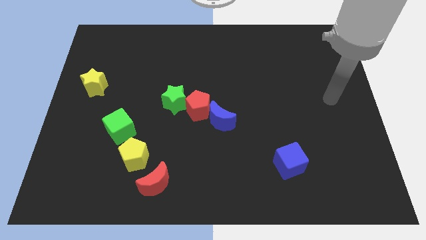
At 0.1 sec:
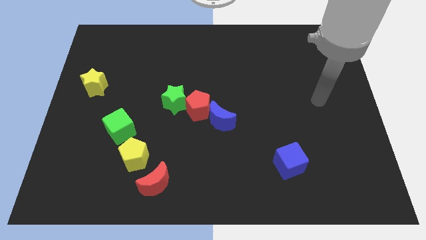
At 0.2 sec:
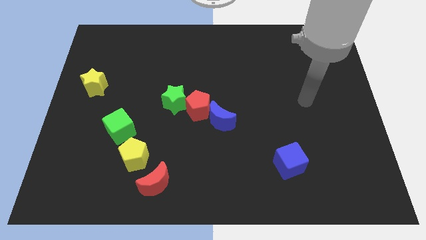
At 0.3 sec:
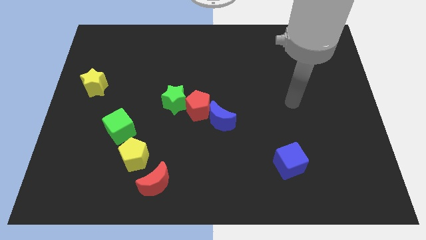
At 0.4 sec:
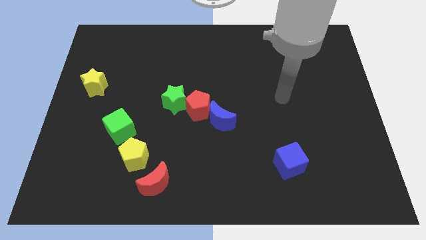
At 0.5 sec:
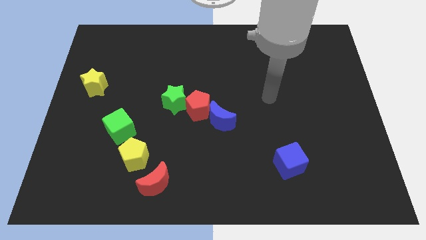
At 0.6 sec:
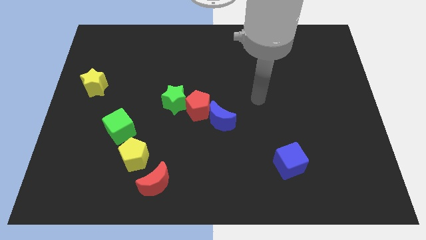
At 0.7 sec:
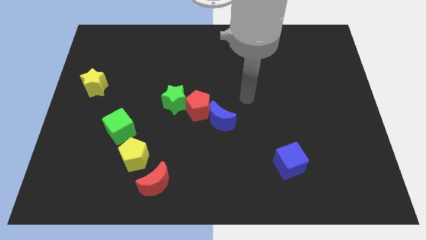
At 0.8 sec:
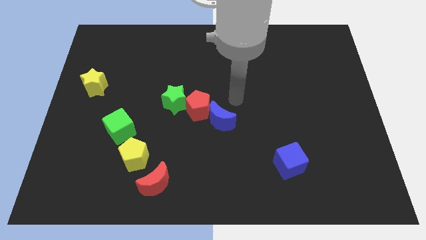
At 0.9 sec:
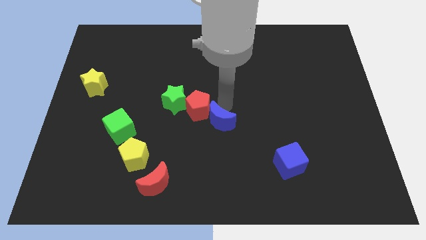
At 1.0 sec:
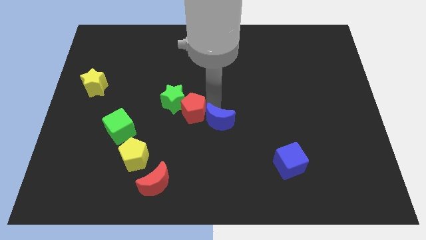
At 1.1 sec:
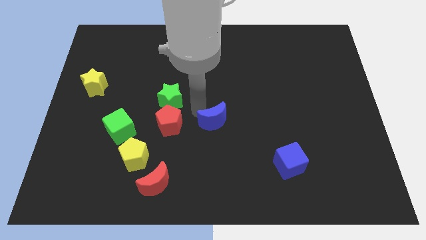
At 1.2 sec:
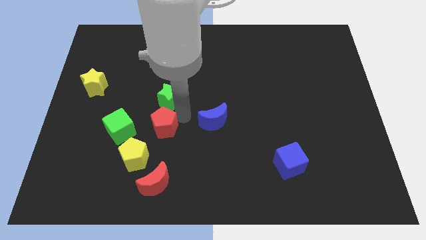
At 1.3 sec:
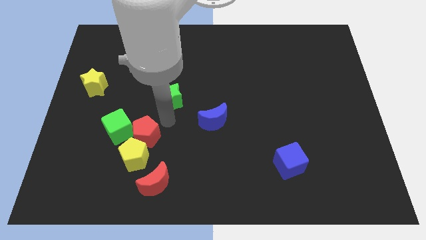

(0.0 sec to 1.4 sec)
separate the green star from the red pentagon

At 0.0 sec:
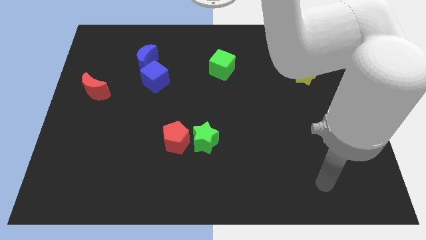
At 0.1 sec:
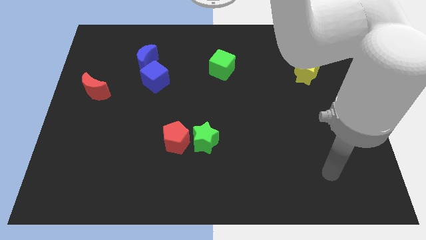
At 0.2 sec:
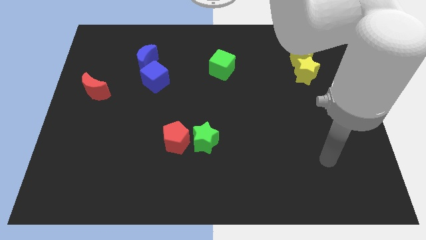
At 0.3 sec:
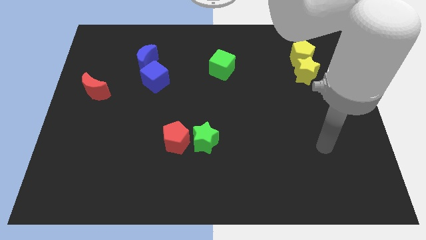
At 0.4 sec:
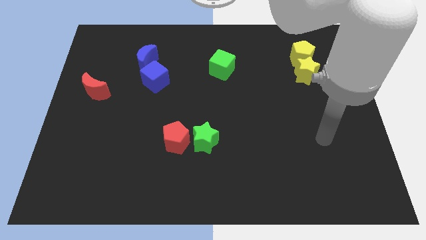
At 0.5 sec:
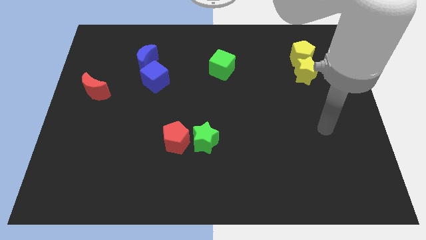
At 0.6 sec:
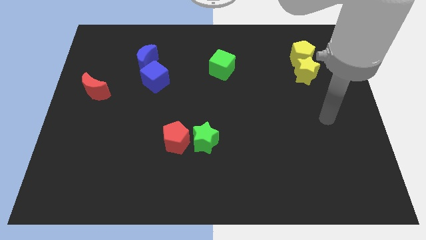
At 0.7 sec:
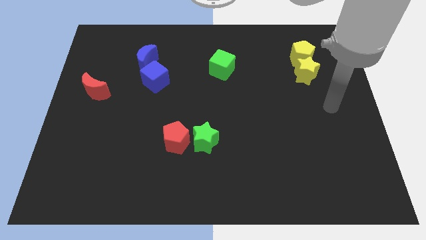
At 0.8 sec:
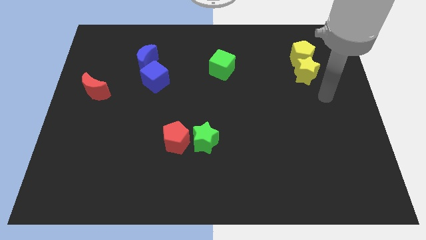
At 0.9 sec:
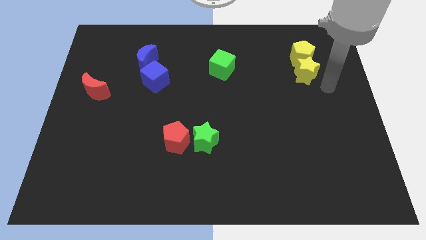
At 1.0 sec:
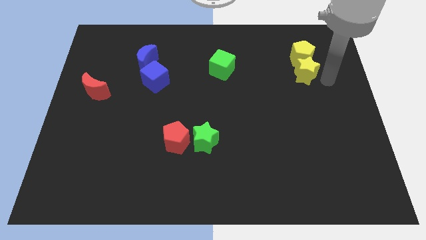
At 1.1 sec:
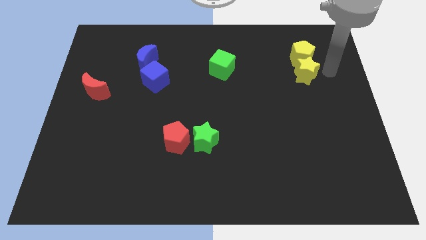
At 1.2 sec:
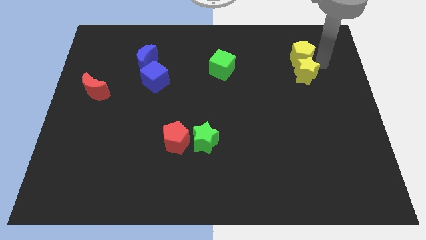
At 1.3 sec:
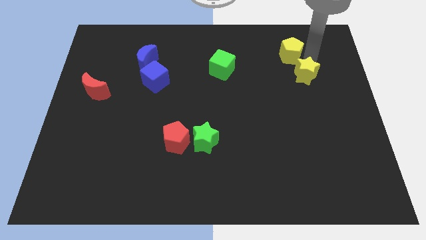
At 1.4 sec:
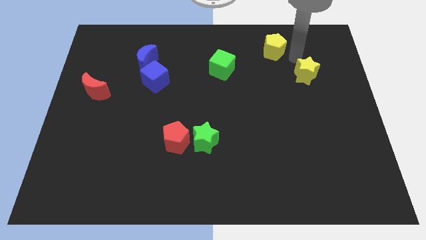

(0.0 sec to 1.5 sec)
pull the yellow star apart from the yellow pentagon

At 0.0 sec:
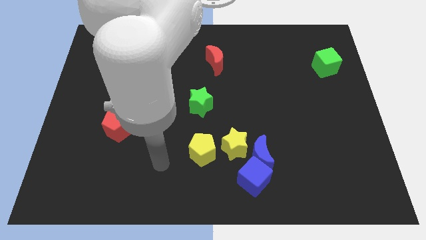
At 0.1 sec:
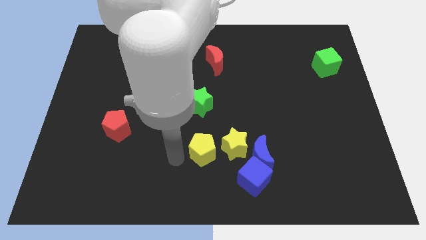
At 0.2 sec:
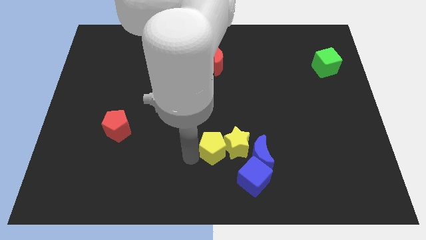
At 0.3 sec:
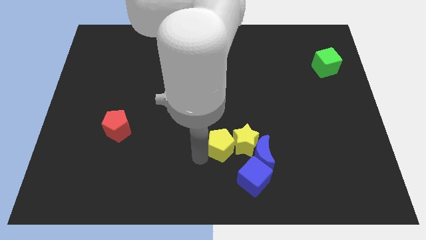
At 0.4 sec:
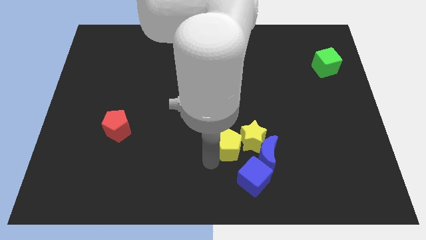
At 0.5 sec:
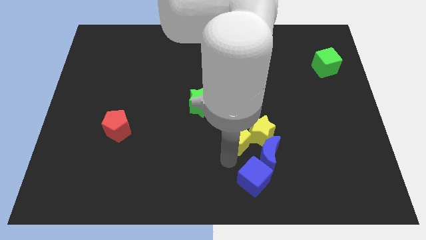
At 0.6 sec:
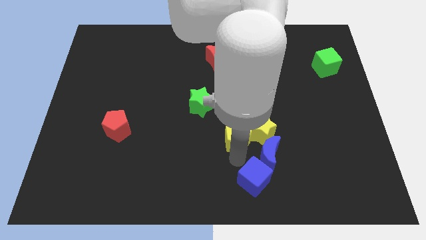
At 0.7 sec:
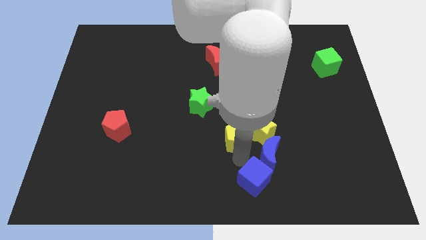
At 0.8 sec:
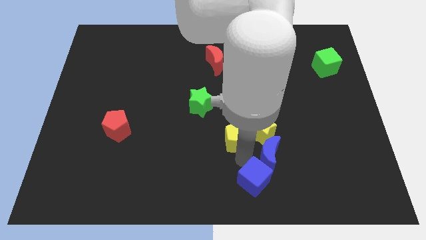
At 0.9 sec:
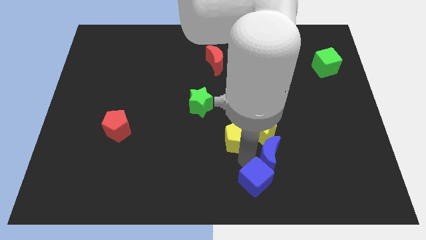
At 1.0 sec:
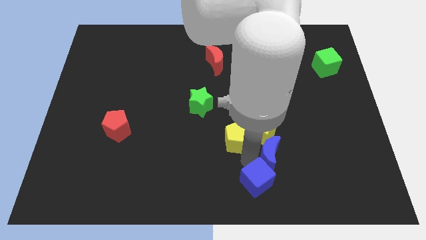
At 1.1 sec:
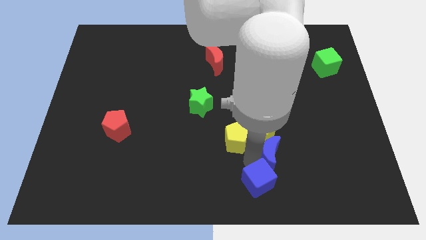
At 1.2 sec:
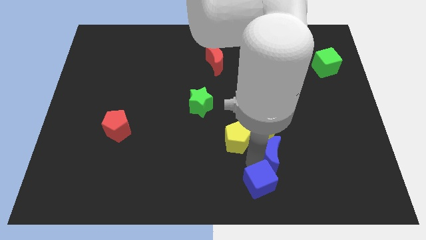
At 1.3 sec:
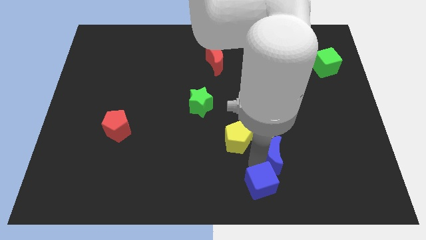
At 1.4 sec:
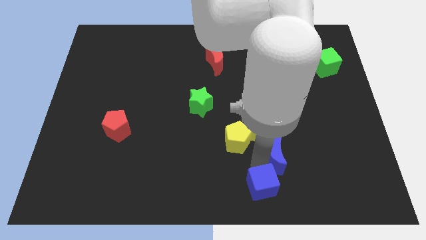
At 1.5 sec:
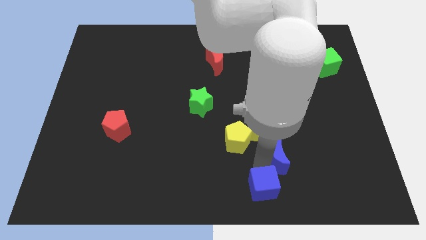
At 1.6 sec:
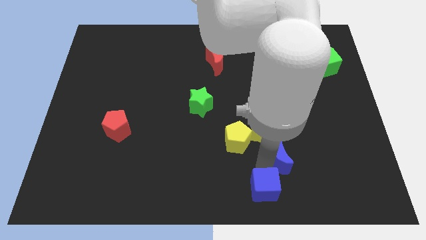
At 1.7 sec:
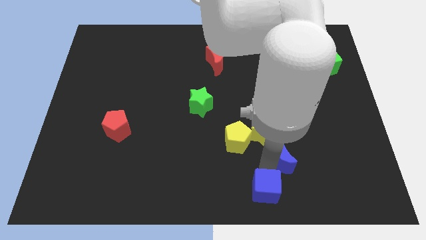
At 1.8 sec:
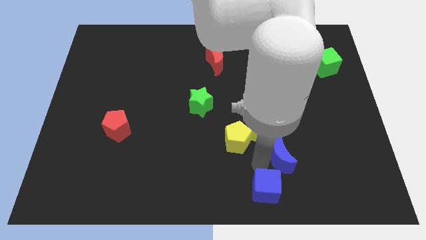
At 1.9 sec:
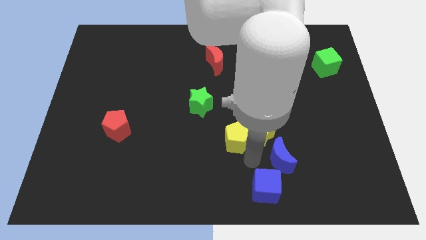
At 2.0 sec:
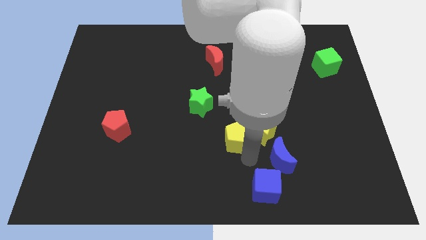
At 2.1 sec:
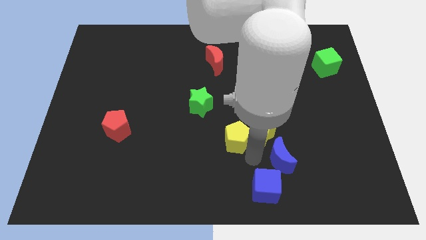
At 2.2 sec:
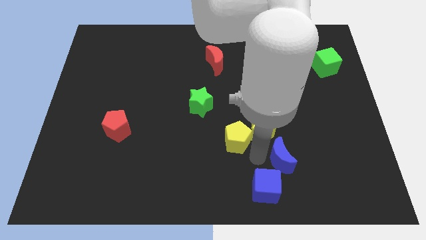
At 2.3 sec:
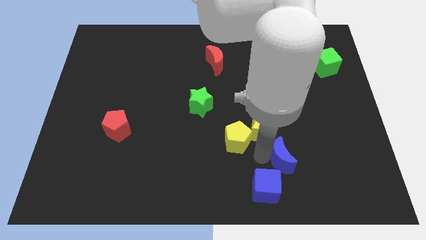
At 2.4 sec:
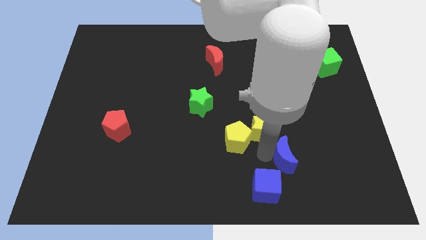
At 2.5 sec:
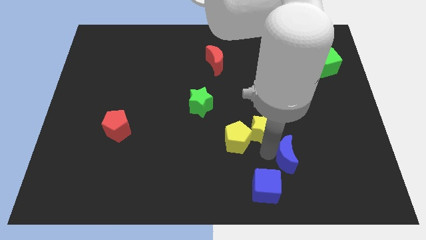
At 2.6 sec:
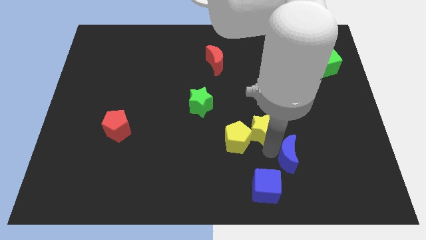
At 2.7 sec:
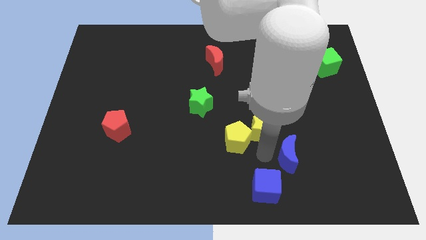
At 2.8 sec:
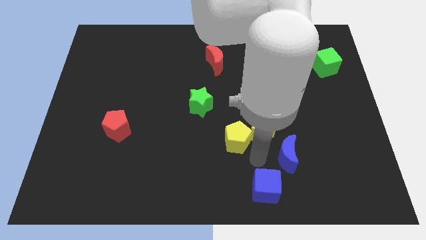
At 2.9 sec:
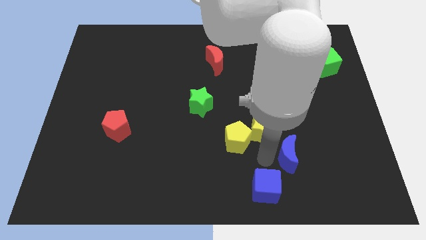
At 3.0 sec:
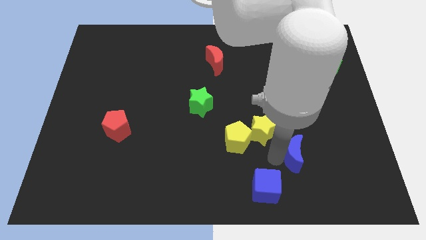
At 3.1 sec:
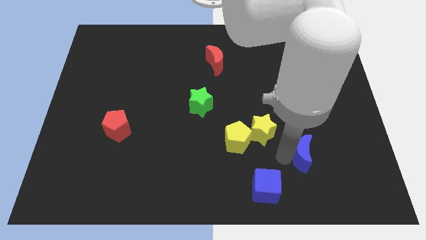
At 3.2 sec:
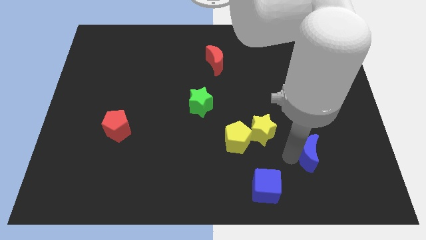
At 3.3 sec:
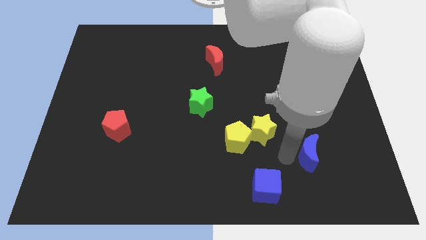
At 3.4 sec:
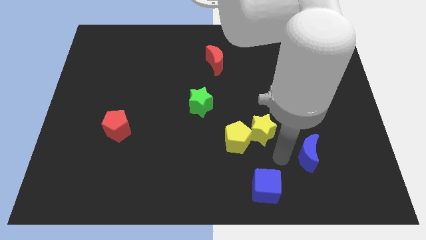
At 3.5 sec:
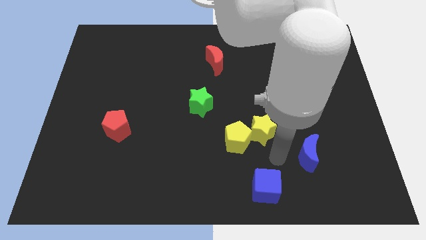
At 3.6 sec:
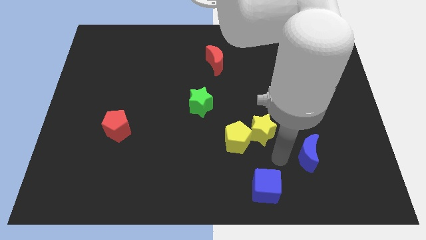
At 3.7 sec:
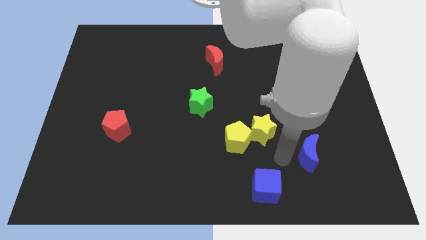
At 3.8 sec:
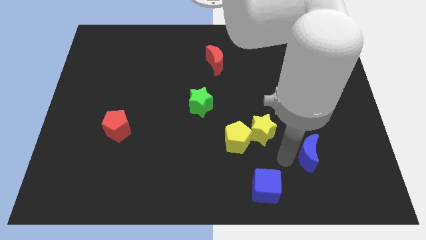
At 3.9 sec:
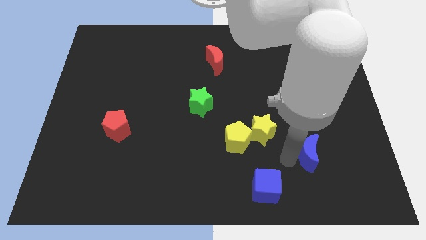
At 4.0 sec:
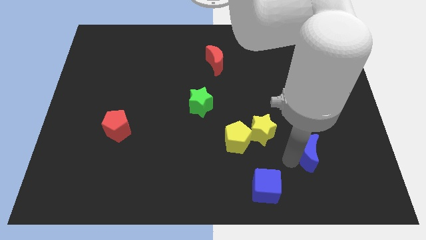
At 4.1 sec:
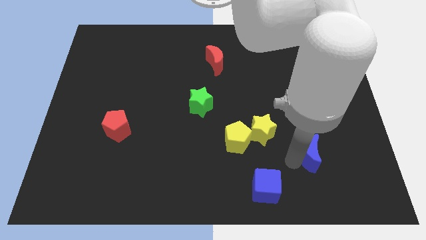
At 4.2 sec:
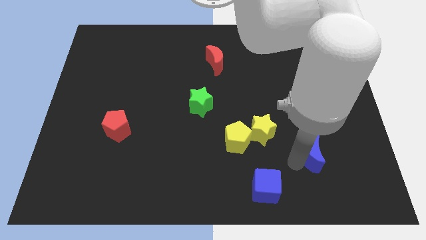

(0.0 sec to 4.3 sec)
separate the blue moon from the blue cube and yellow star

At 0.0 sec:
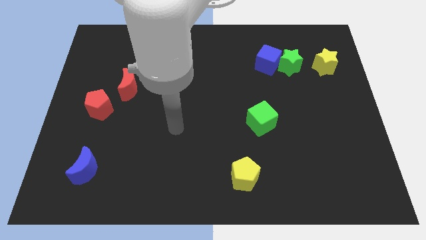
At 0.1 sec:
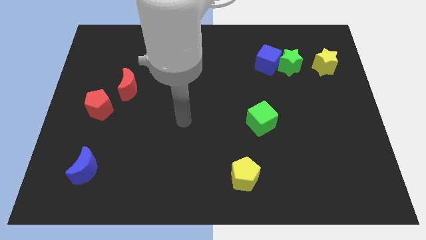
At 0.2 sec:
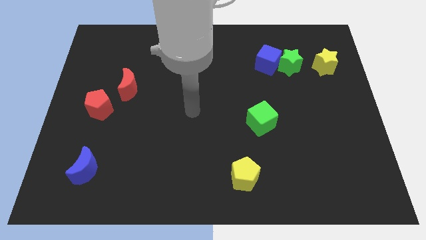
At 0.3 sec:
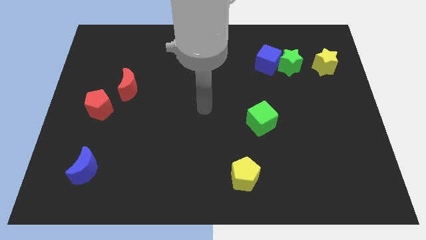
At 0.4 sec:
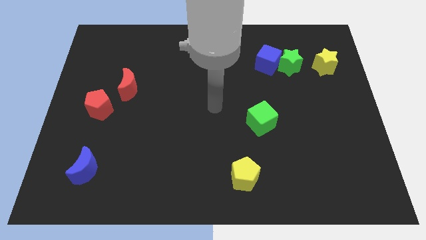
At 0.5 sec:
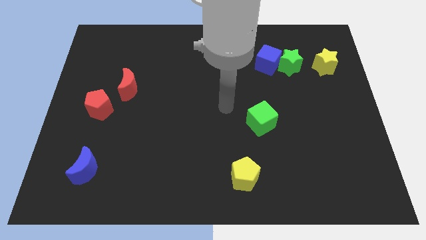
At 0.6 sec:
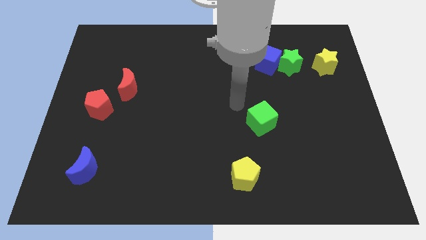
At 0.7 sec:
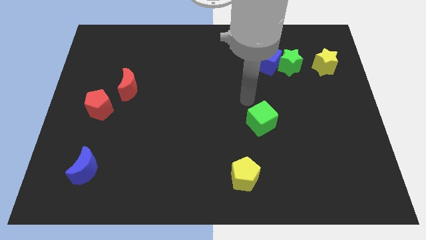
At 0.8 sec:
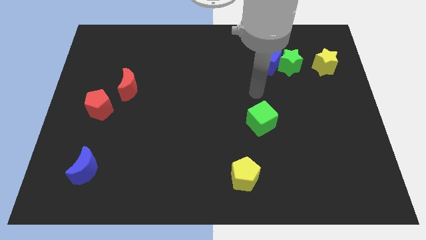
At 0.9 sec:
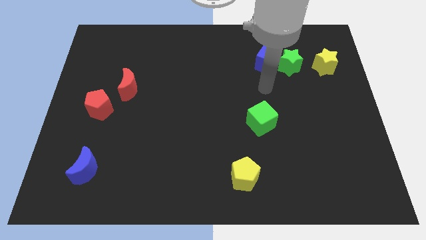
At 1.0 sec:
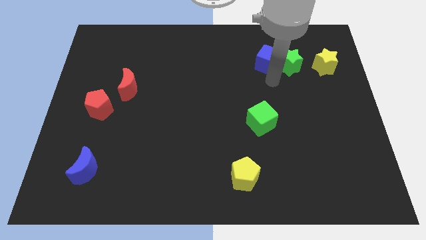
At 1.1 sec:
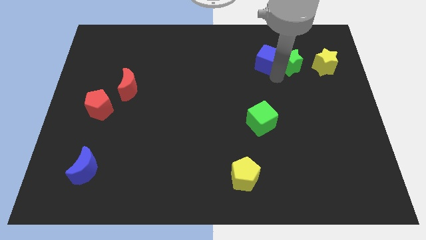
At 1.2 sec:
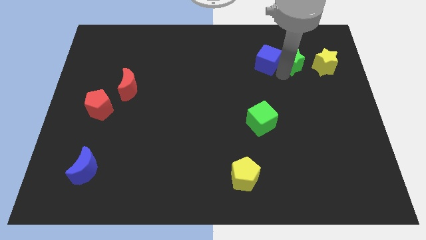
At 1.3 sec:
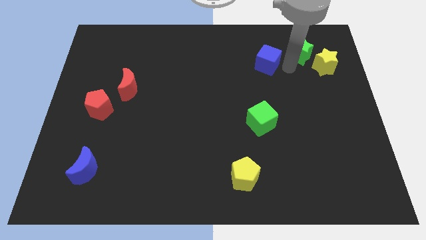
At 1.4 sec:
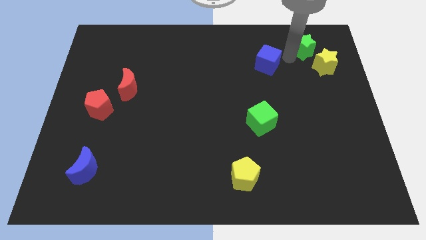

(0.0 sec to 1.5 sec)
move the blue cube away from the green star

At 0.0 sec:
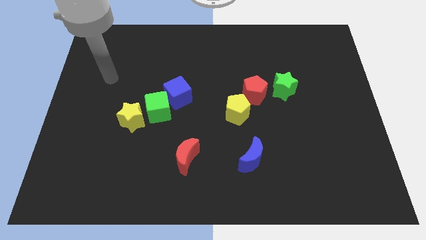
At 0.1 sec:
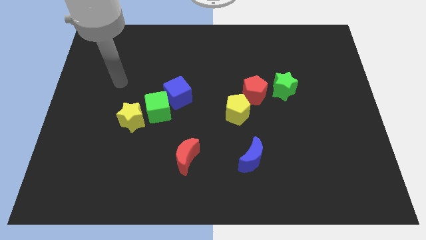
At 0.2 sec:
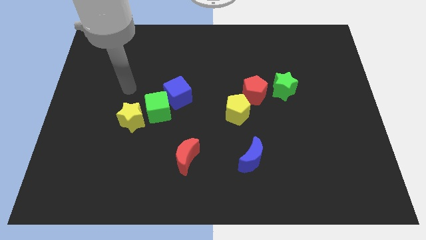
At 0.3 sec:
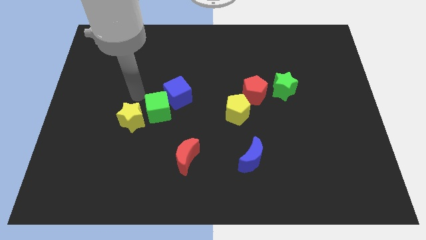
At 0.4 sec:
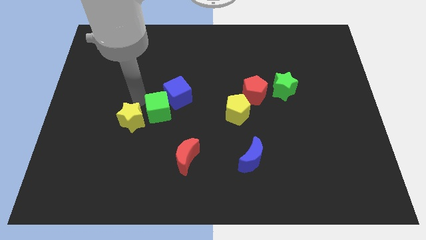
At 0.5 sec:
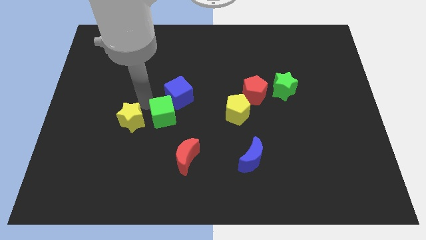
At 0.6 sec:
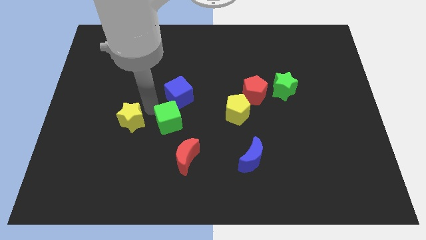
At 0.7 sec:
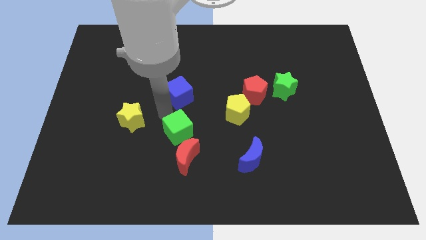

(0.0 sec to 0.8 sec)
pull the blue cube apart from the green cube
